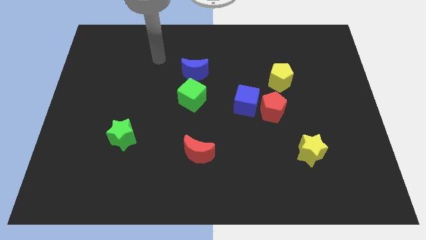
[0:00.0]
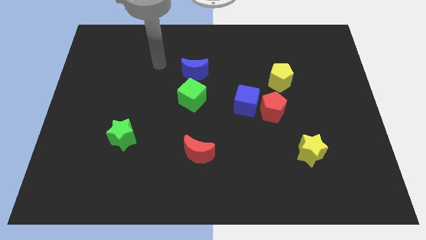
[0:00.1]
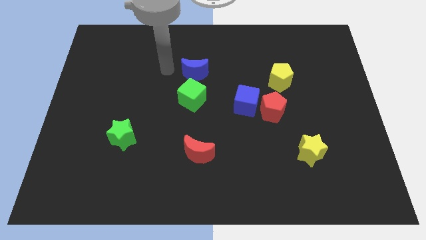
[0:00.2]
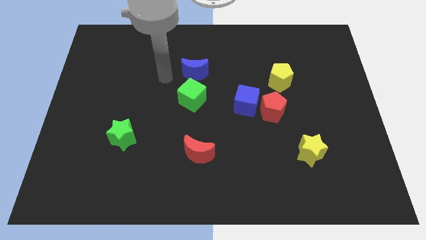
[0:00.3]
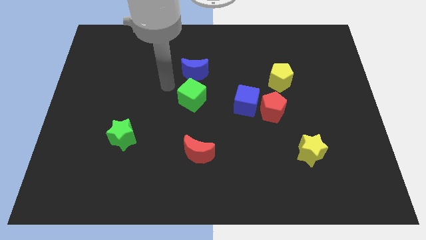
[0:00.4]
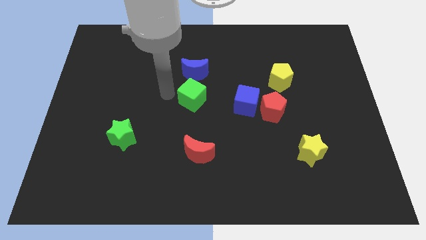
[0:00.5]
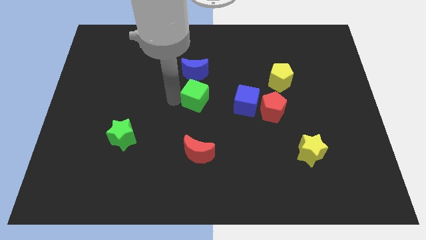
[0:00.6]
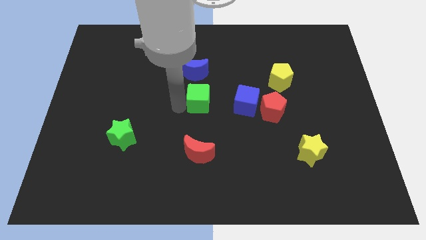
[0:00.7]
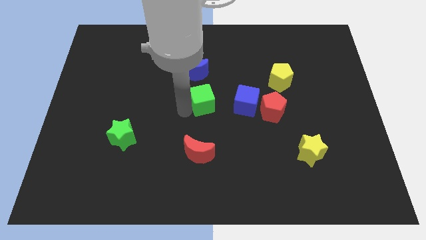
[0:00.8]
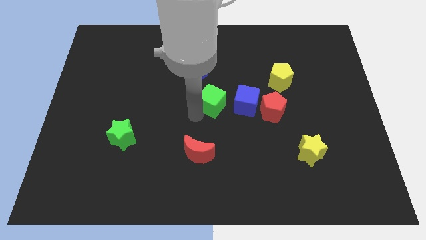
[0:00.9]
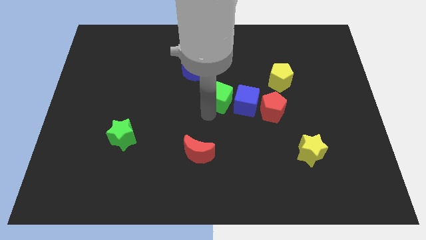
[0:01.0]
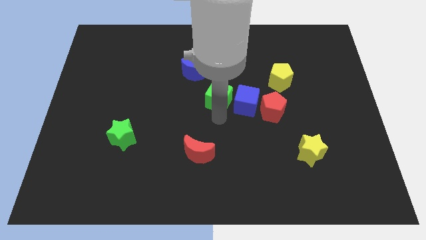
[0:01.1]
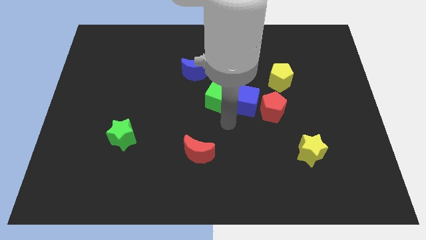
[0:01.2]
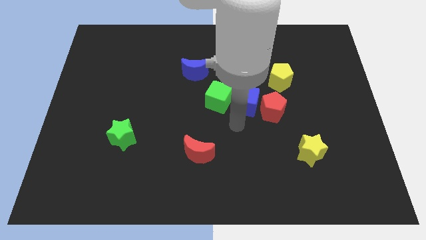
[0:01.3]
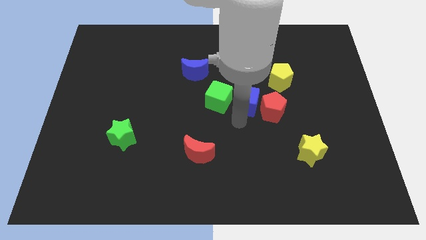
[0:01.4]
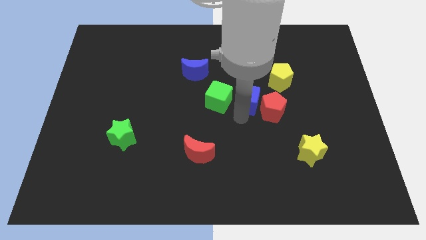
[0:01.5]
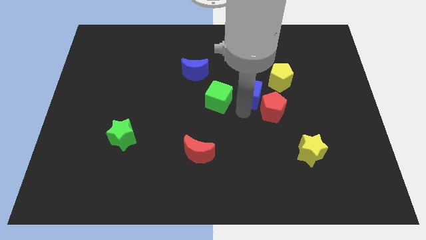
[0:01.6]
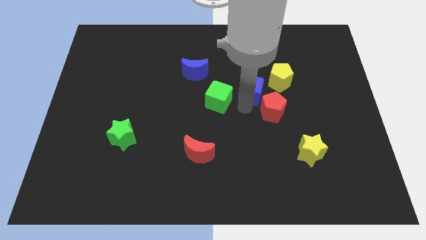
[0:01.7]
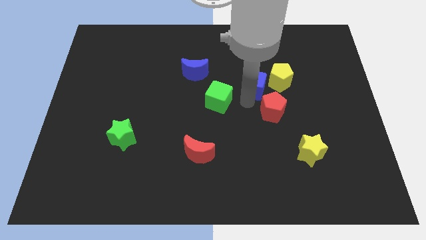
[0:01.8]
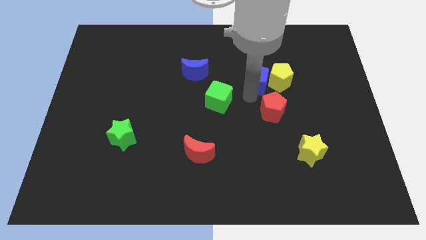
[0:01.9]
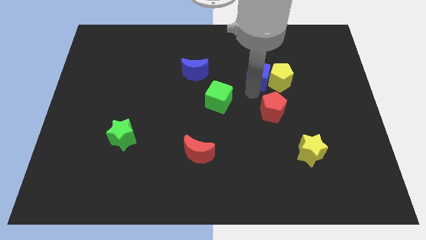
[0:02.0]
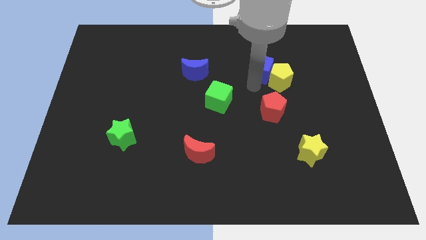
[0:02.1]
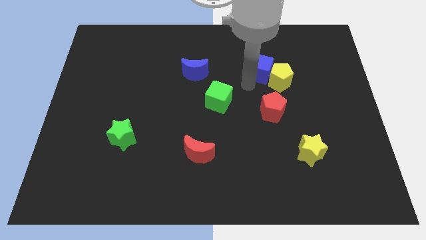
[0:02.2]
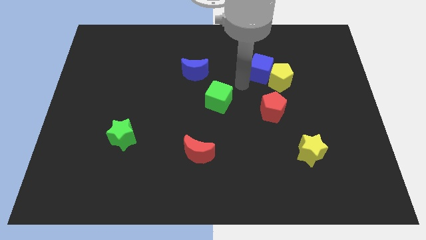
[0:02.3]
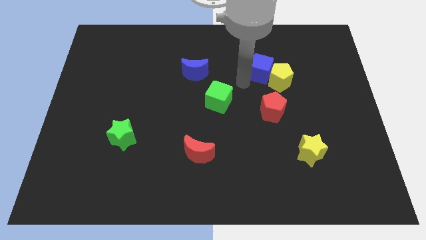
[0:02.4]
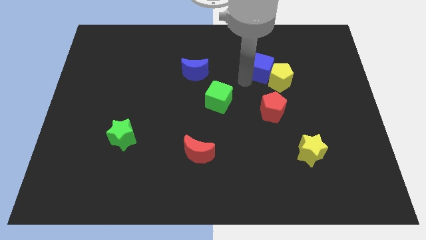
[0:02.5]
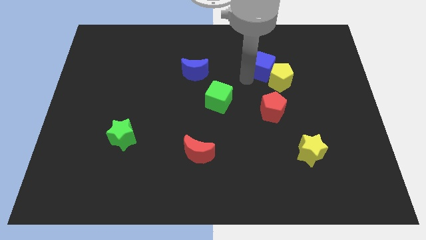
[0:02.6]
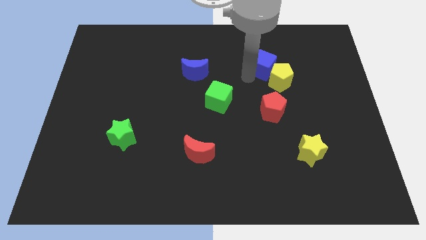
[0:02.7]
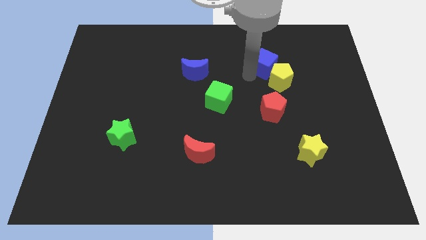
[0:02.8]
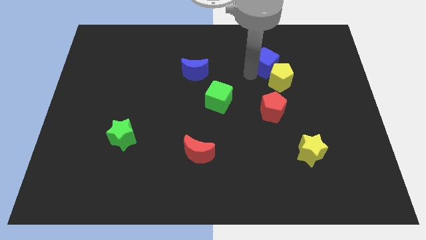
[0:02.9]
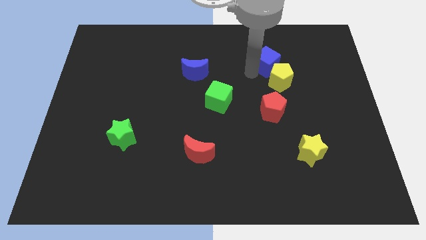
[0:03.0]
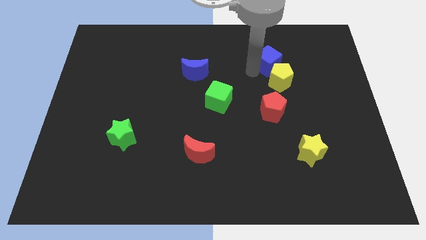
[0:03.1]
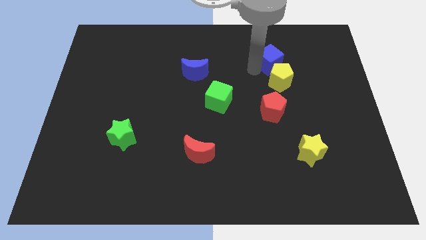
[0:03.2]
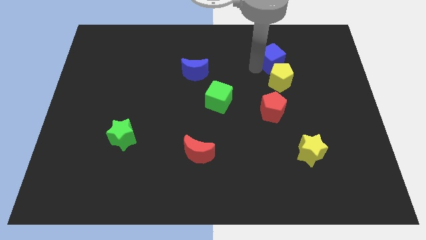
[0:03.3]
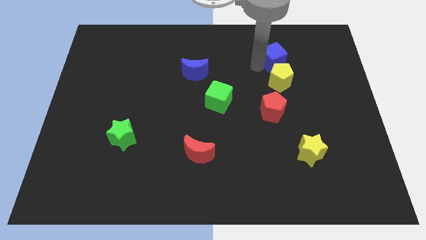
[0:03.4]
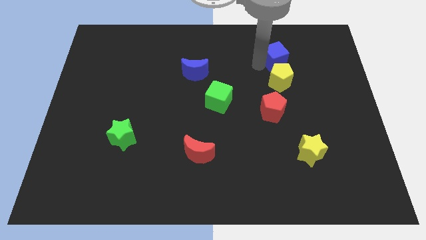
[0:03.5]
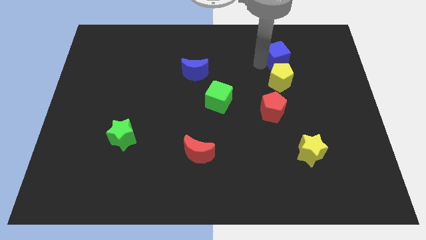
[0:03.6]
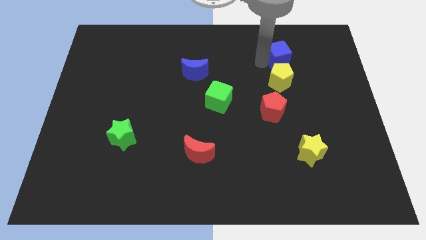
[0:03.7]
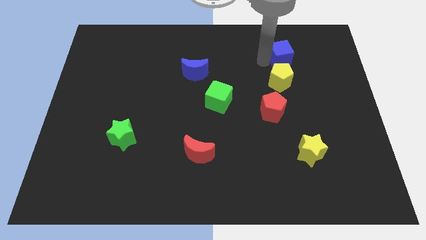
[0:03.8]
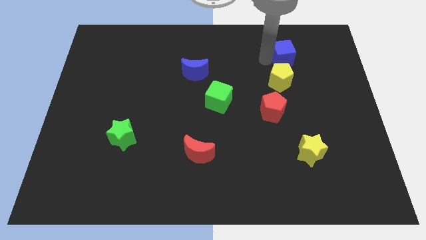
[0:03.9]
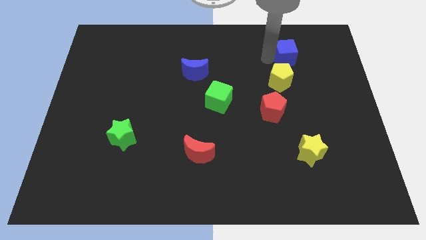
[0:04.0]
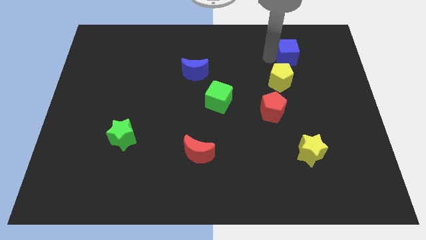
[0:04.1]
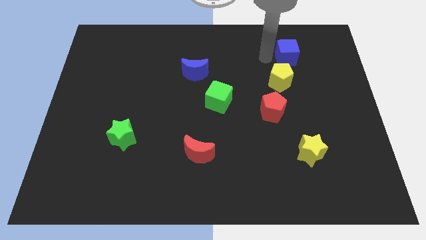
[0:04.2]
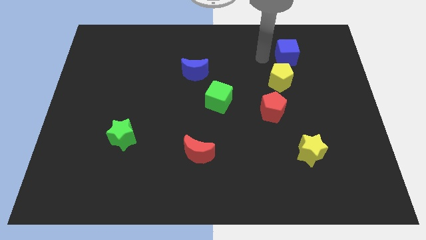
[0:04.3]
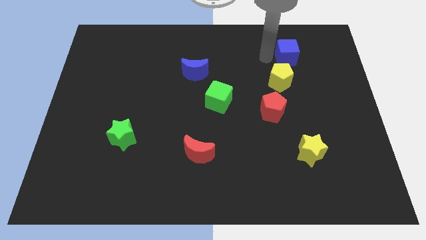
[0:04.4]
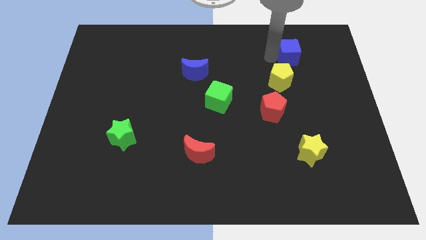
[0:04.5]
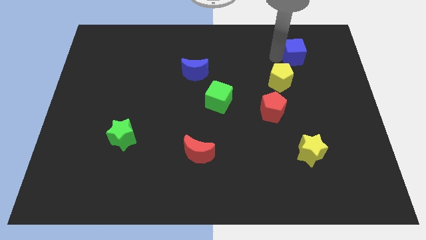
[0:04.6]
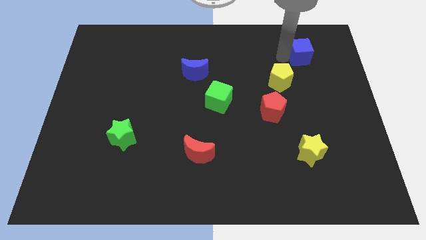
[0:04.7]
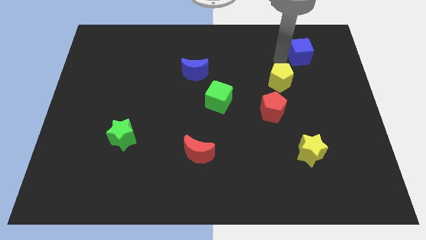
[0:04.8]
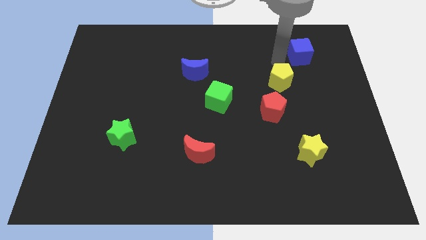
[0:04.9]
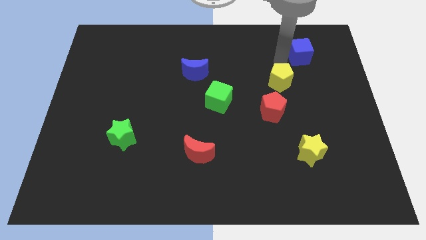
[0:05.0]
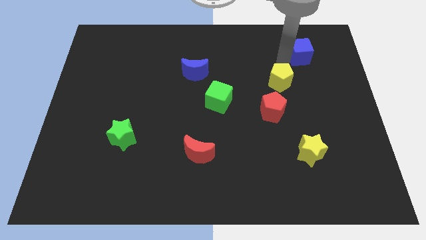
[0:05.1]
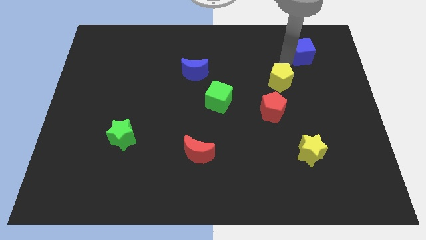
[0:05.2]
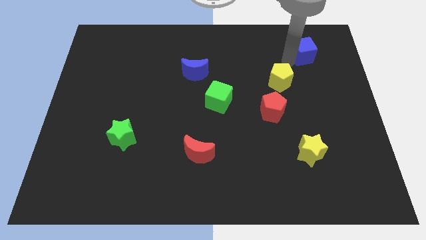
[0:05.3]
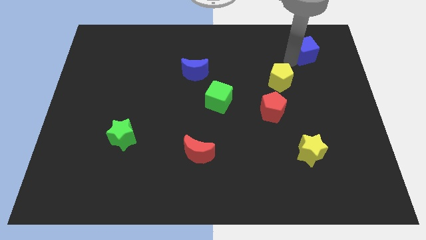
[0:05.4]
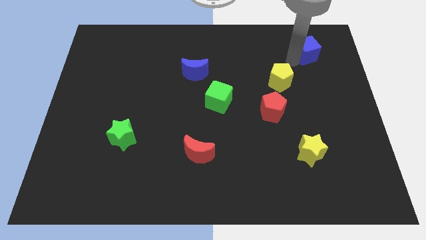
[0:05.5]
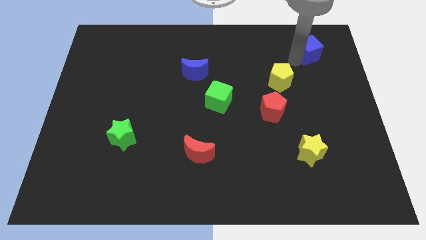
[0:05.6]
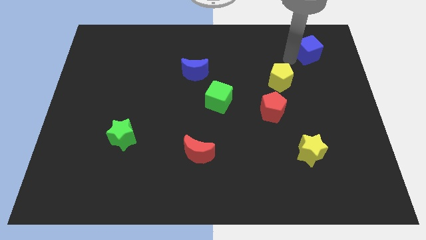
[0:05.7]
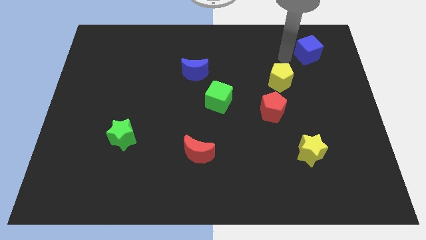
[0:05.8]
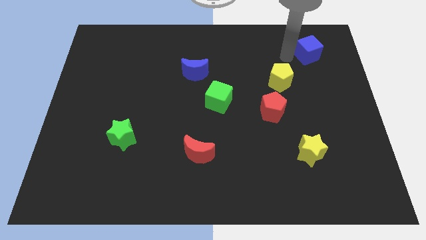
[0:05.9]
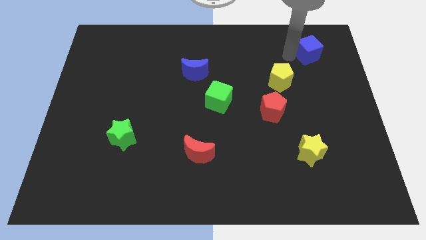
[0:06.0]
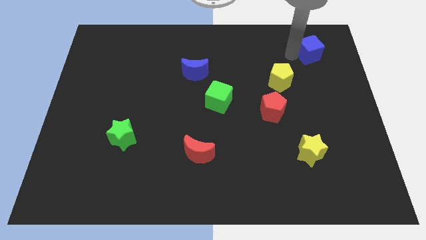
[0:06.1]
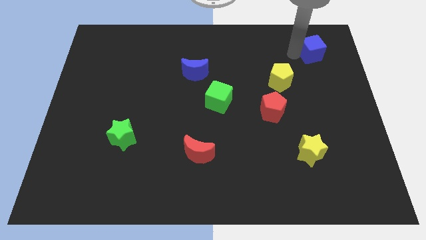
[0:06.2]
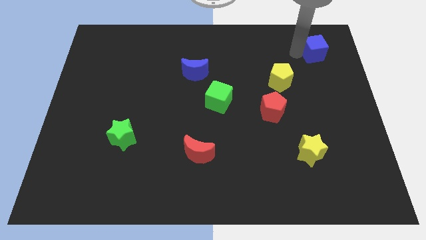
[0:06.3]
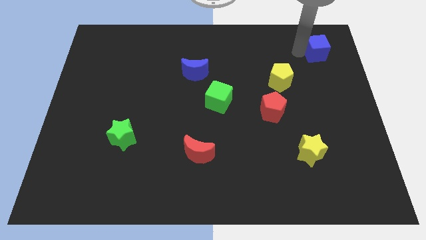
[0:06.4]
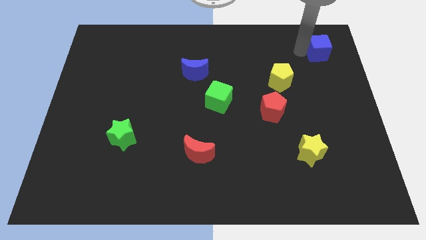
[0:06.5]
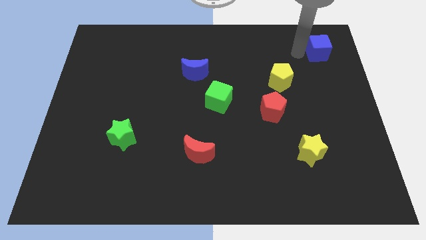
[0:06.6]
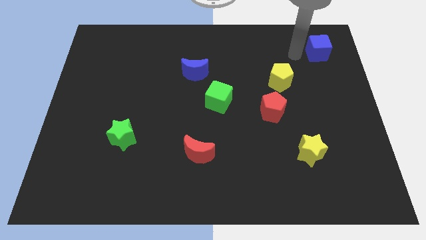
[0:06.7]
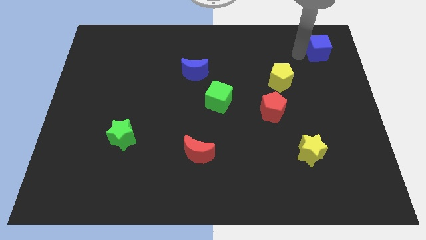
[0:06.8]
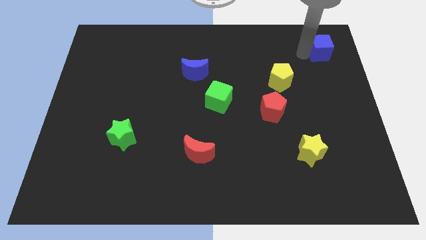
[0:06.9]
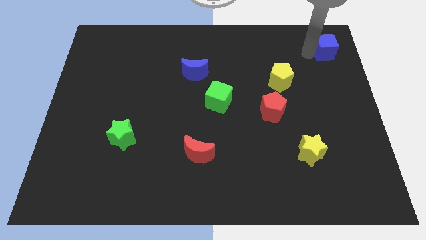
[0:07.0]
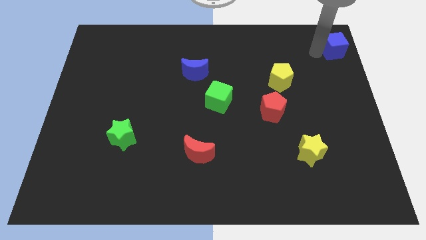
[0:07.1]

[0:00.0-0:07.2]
push the blue cube to the top right

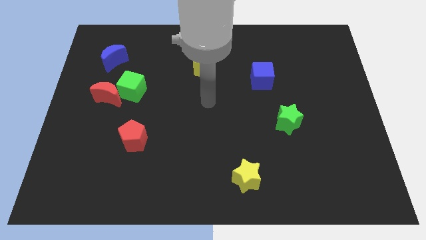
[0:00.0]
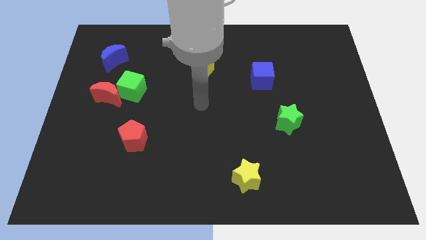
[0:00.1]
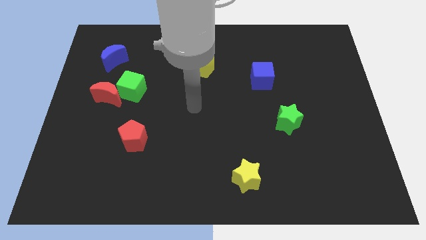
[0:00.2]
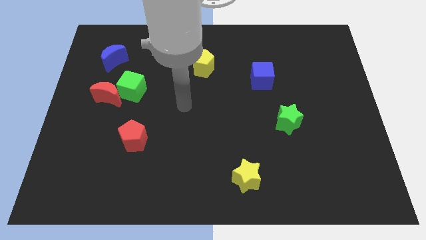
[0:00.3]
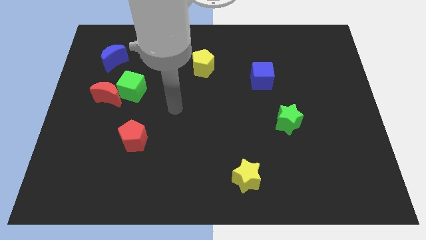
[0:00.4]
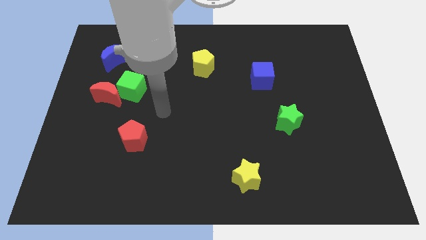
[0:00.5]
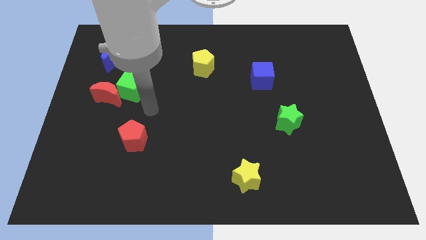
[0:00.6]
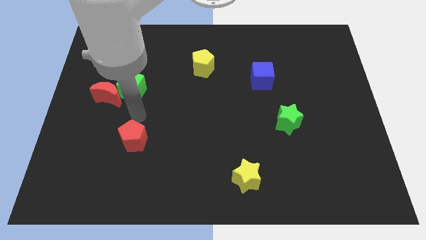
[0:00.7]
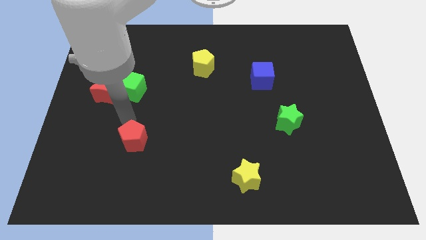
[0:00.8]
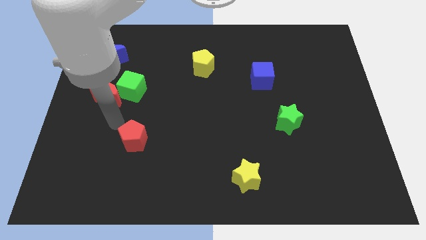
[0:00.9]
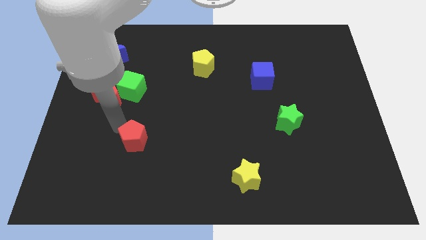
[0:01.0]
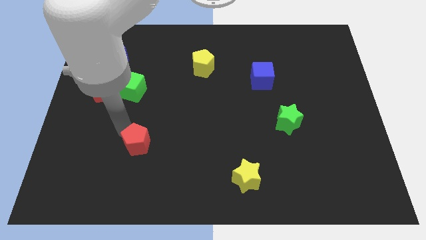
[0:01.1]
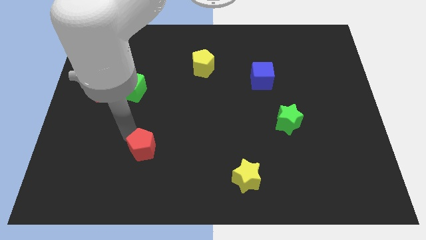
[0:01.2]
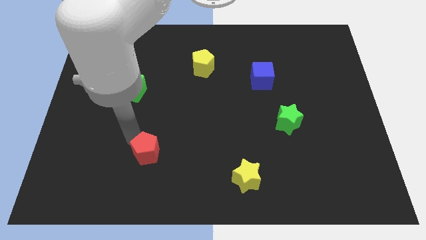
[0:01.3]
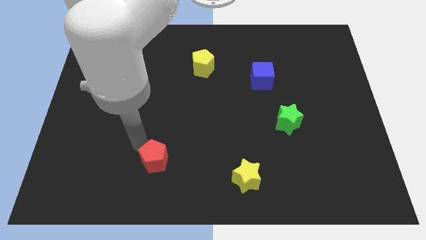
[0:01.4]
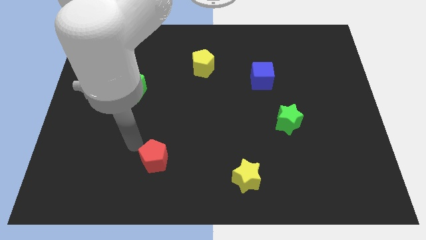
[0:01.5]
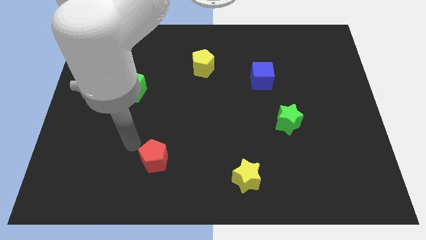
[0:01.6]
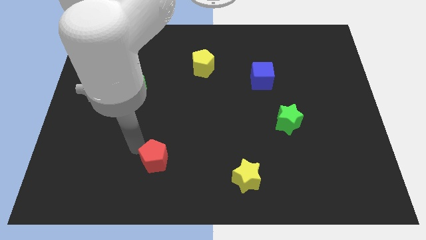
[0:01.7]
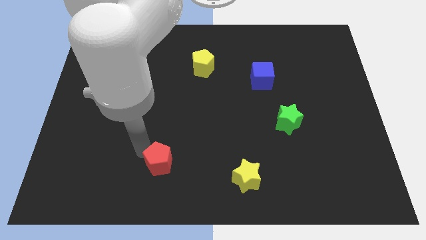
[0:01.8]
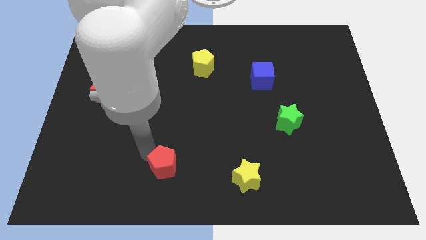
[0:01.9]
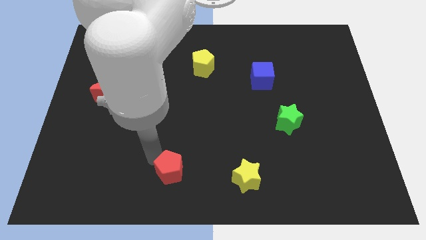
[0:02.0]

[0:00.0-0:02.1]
move the red pentagon to the bottom
